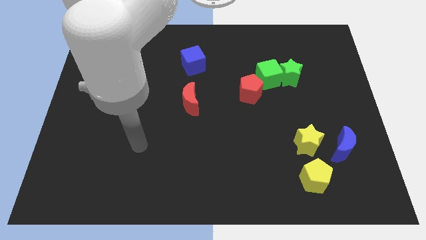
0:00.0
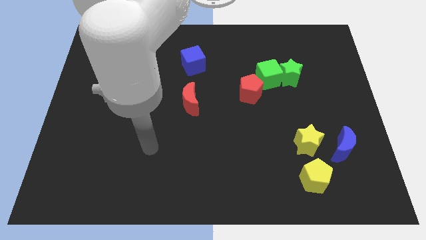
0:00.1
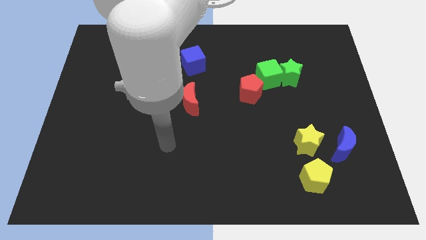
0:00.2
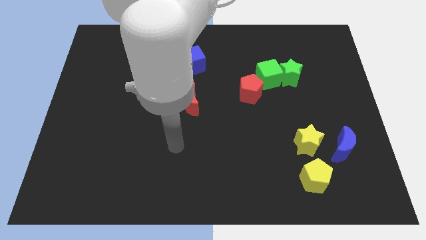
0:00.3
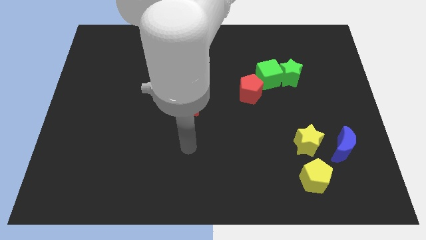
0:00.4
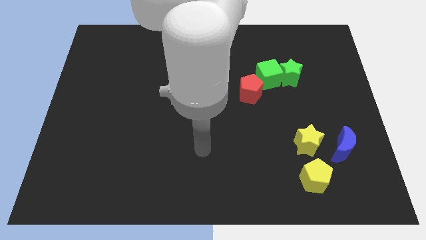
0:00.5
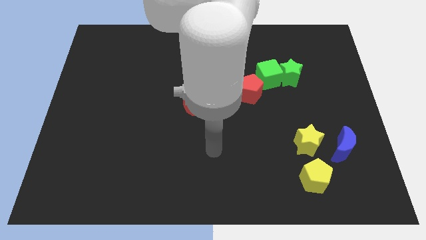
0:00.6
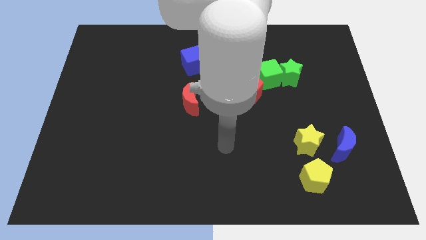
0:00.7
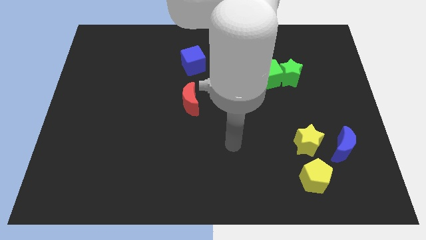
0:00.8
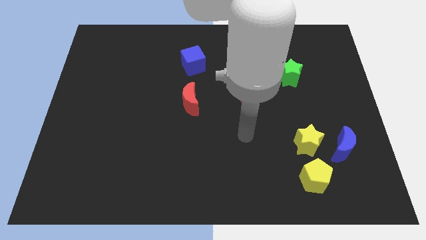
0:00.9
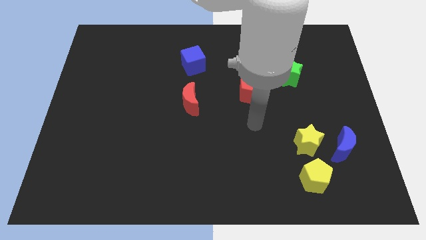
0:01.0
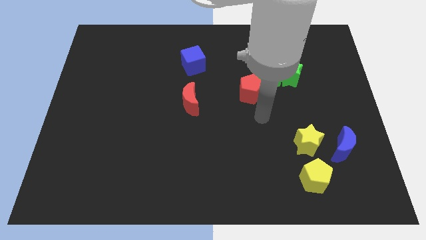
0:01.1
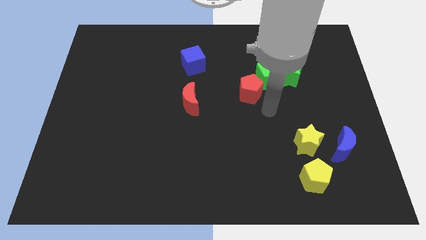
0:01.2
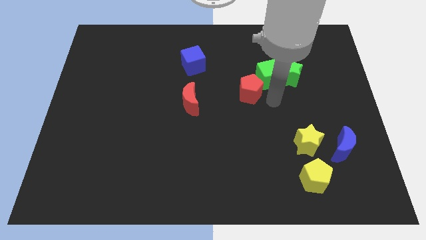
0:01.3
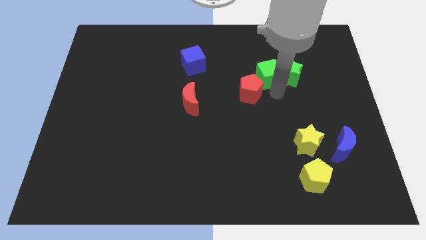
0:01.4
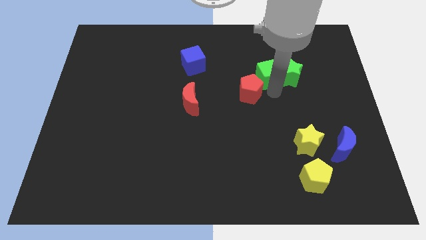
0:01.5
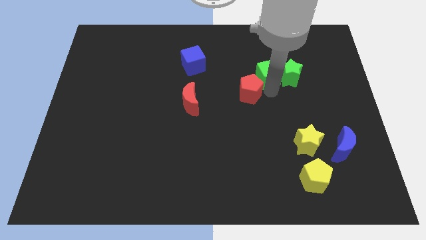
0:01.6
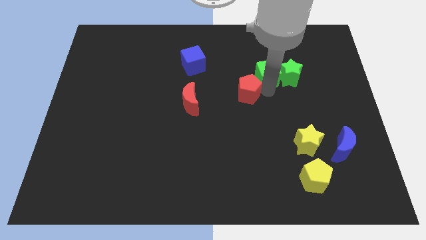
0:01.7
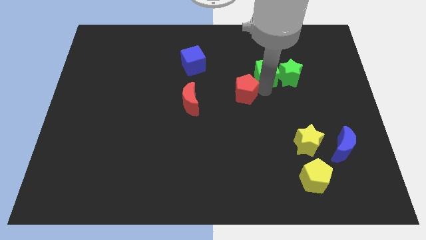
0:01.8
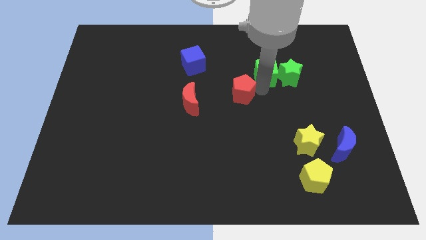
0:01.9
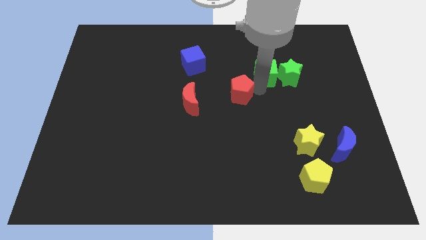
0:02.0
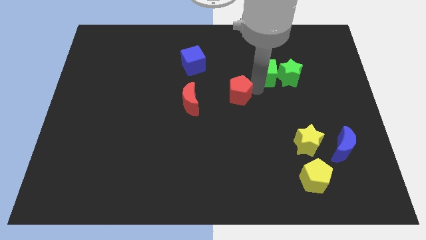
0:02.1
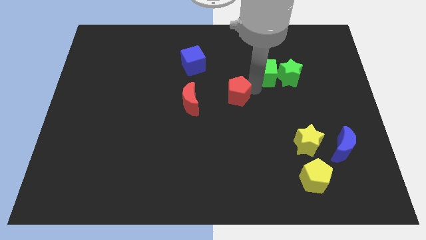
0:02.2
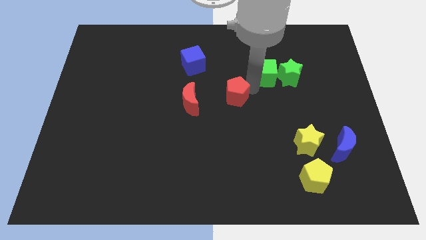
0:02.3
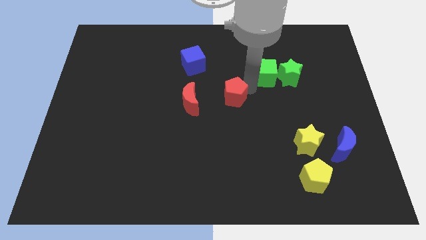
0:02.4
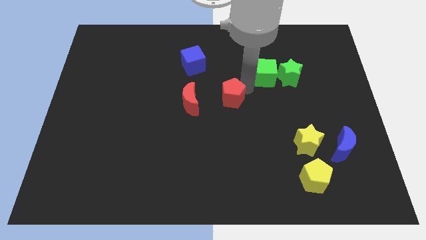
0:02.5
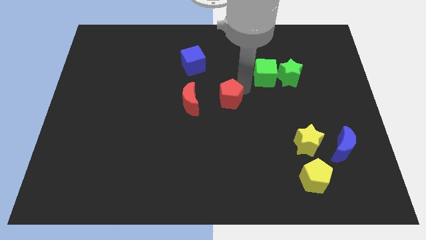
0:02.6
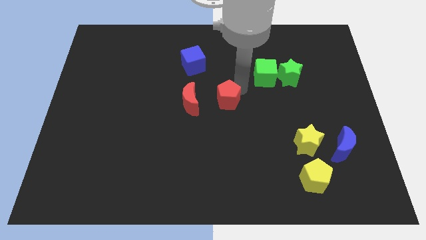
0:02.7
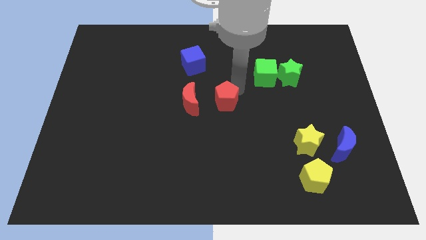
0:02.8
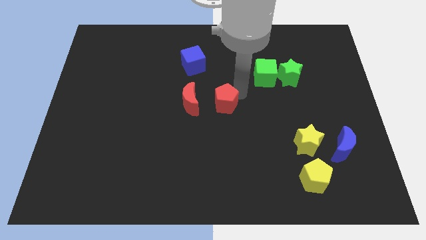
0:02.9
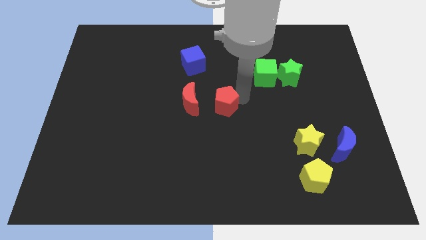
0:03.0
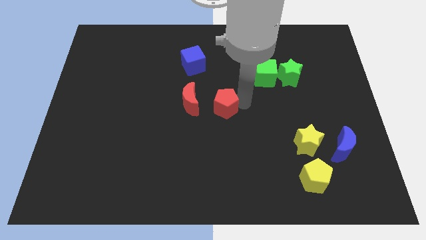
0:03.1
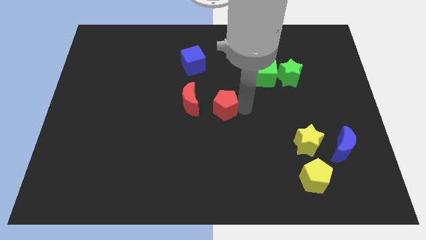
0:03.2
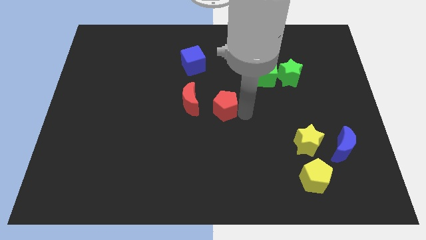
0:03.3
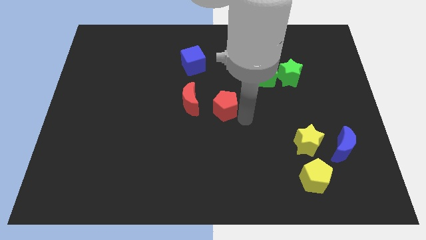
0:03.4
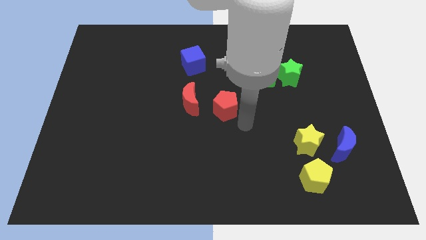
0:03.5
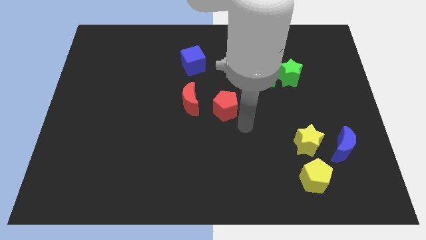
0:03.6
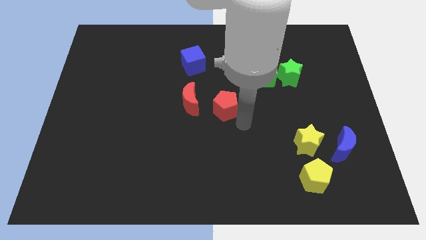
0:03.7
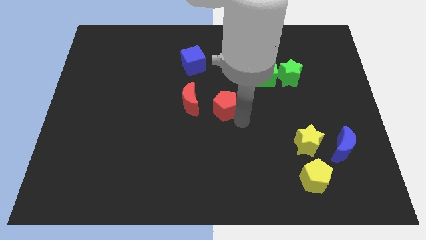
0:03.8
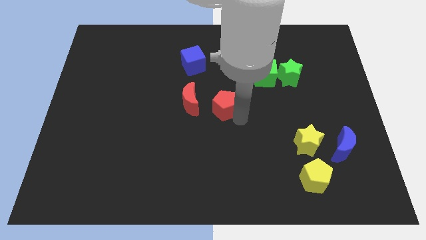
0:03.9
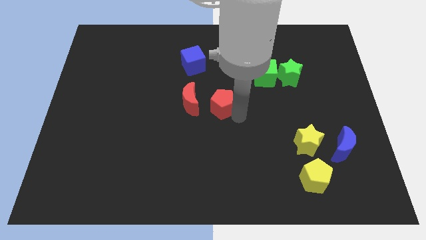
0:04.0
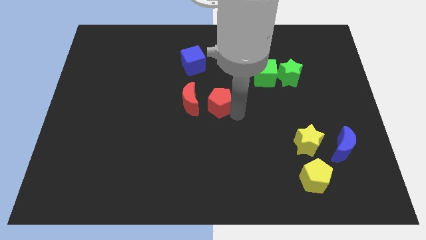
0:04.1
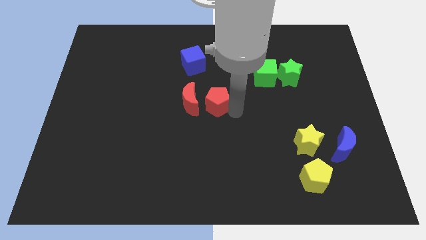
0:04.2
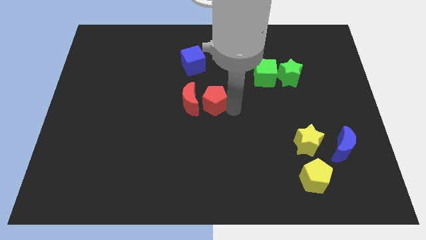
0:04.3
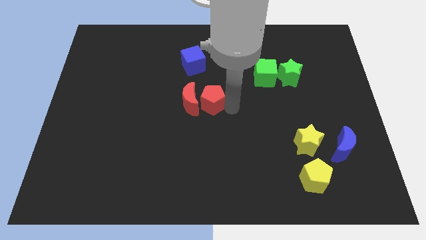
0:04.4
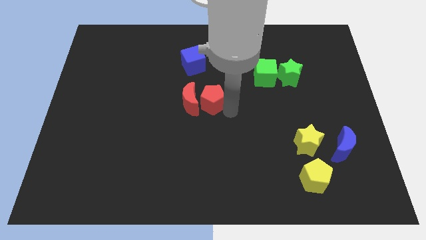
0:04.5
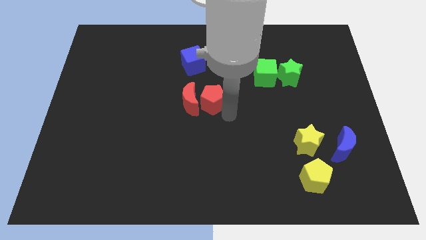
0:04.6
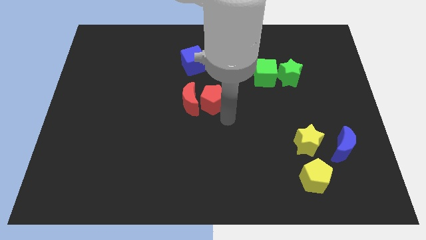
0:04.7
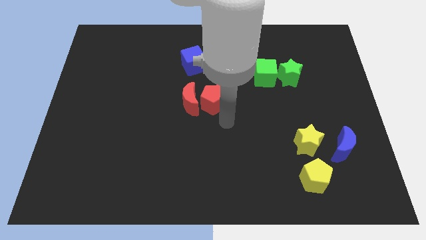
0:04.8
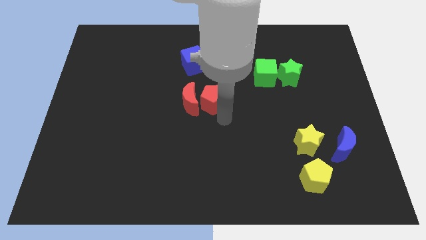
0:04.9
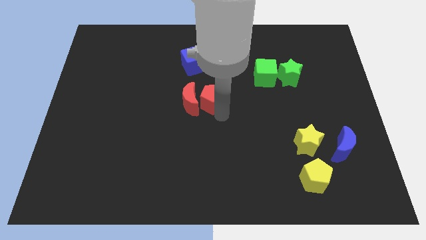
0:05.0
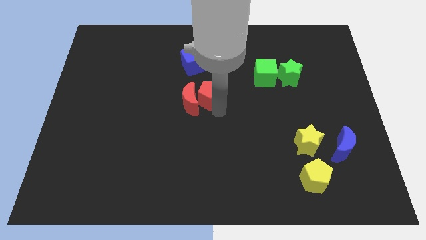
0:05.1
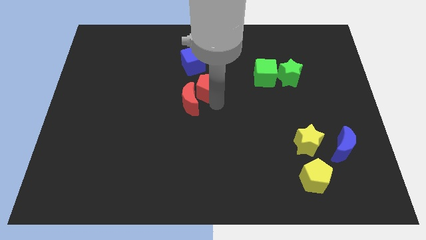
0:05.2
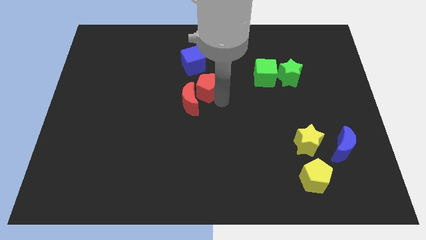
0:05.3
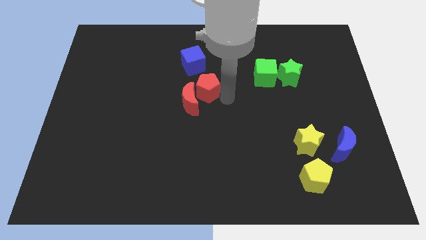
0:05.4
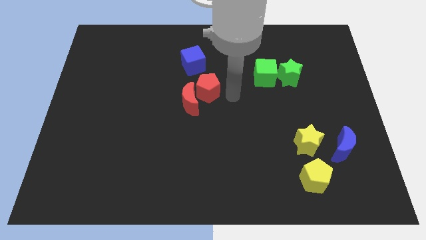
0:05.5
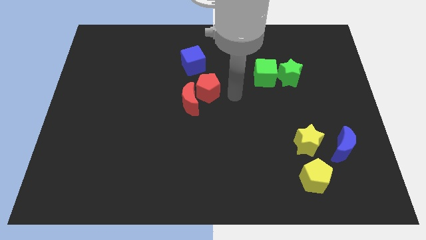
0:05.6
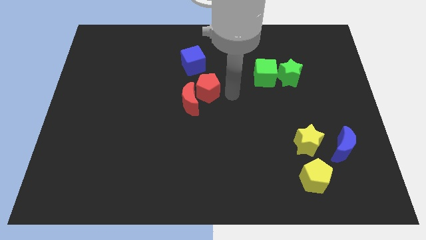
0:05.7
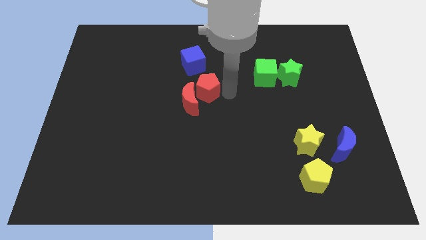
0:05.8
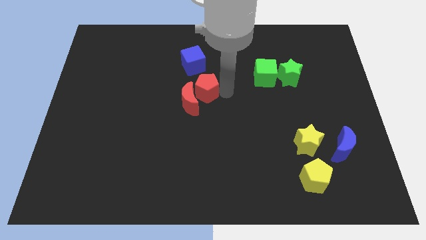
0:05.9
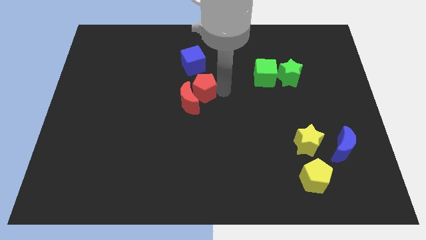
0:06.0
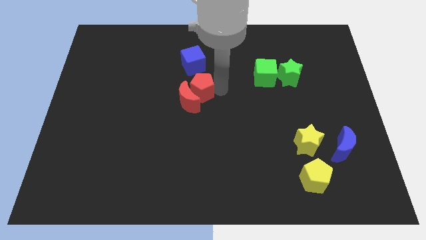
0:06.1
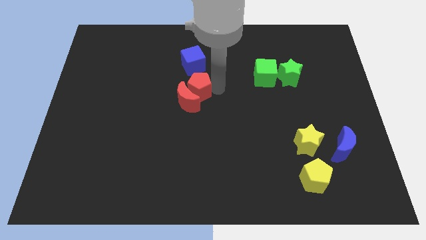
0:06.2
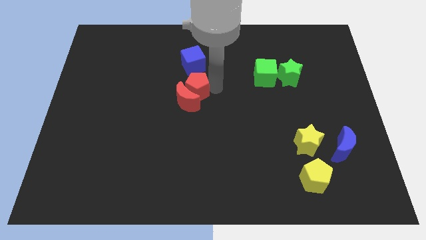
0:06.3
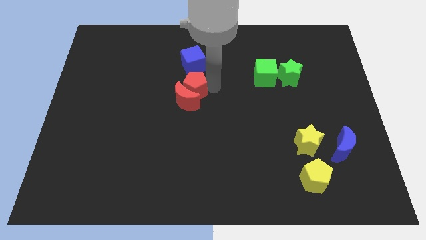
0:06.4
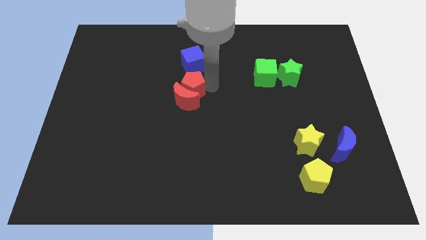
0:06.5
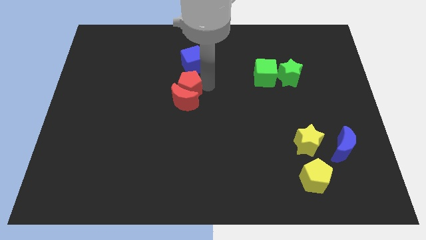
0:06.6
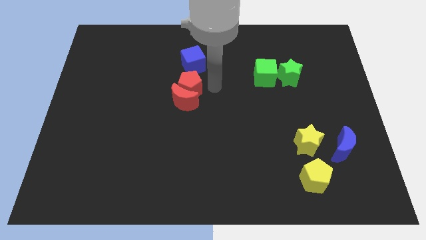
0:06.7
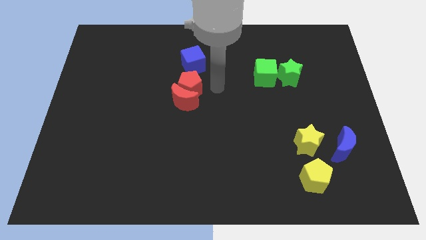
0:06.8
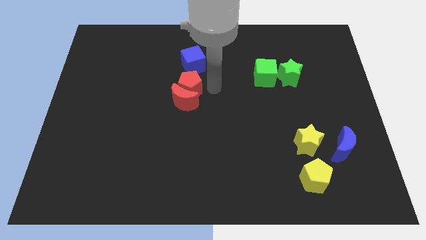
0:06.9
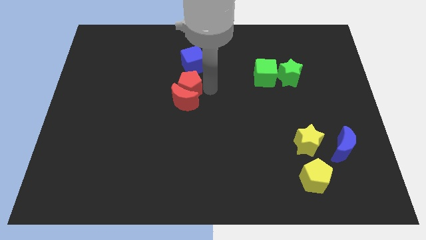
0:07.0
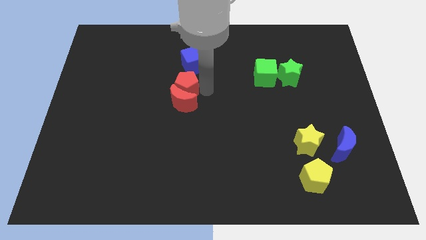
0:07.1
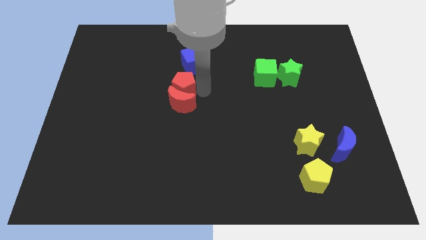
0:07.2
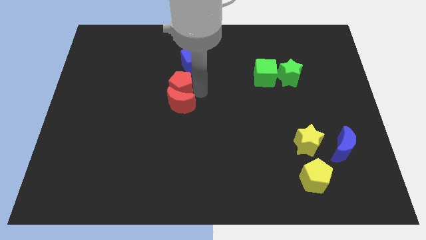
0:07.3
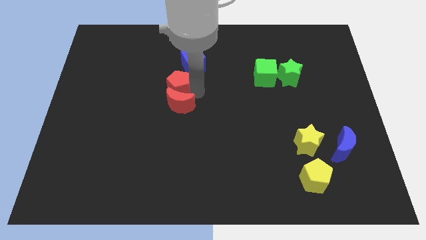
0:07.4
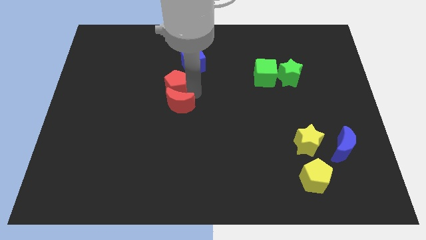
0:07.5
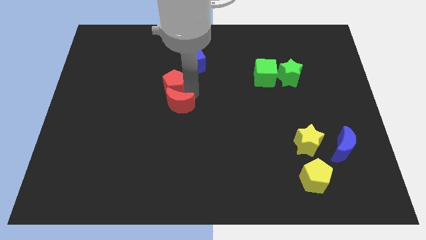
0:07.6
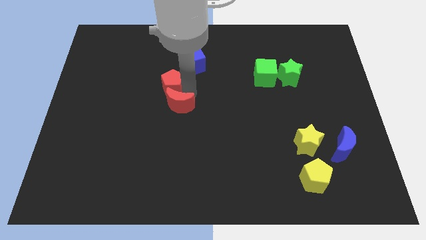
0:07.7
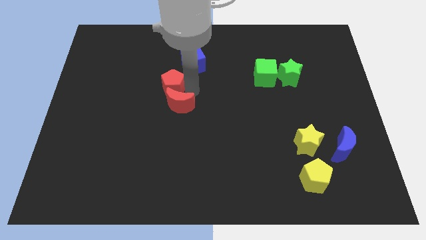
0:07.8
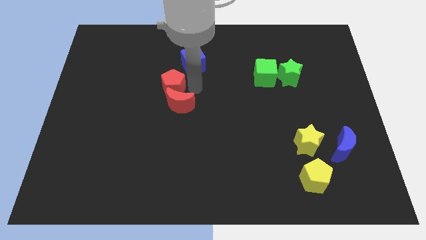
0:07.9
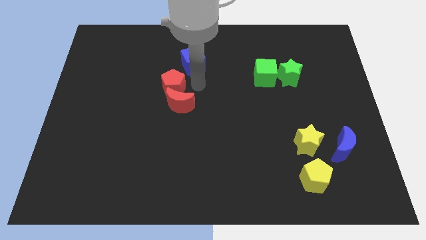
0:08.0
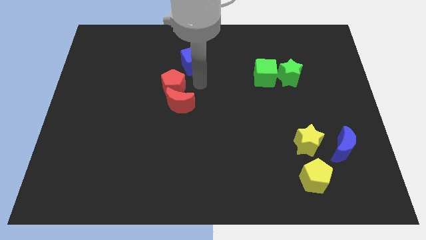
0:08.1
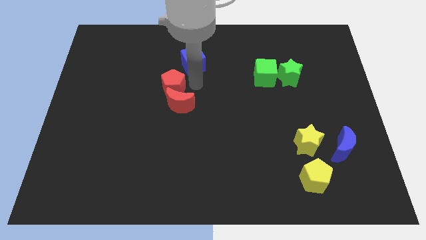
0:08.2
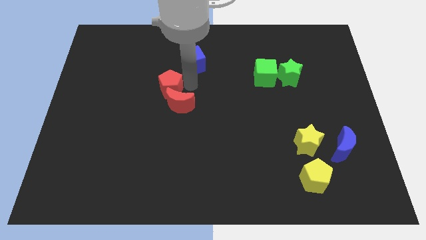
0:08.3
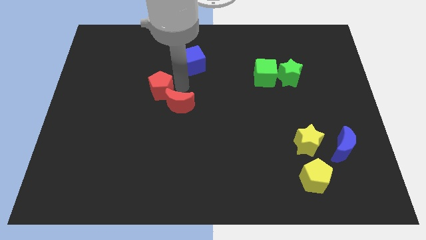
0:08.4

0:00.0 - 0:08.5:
push the red pentagon to the left
